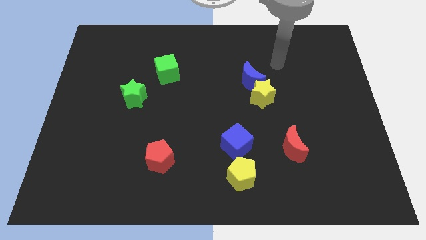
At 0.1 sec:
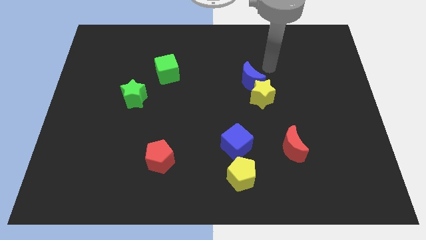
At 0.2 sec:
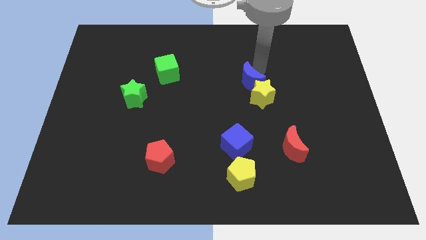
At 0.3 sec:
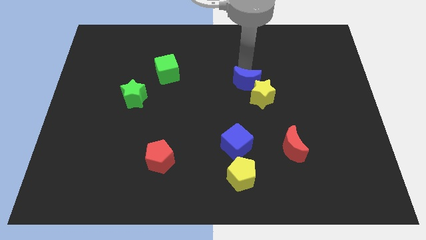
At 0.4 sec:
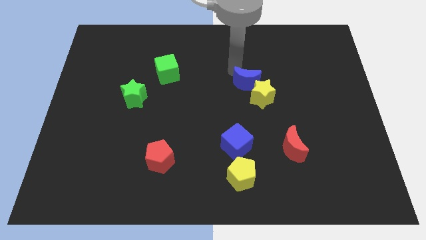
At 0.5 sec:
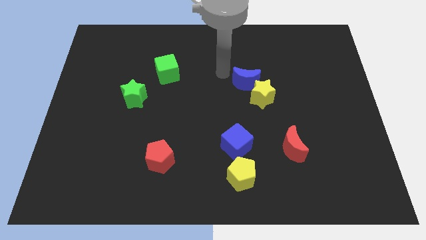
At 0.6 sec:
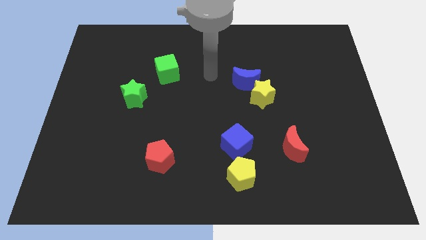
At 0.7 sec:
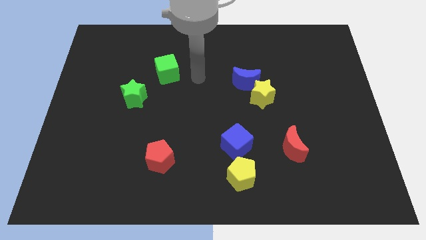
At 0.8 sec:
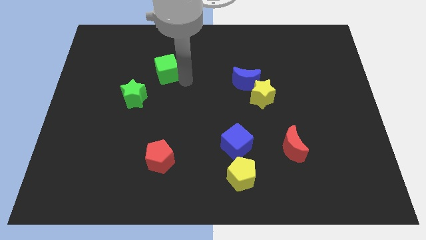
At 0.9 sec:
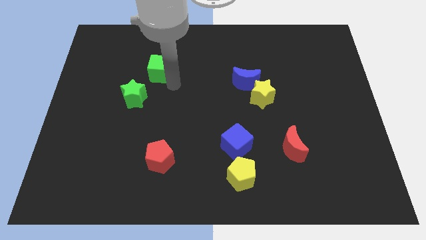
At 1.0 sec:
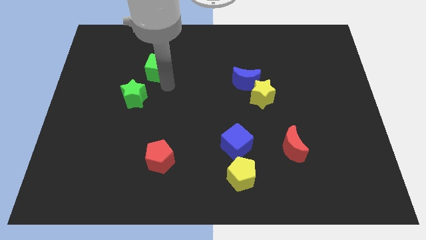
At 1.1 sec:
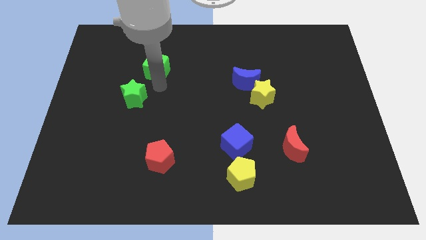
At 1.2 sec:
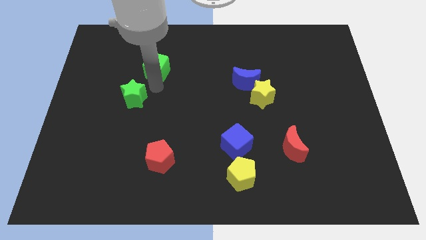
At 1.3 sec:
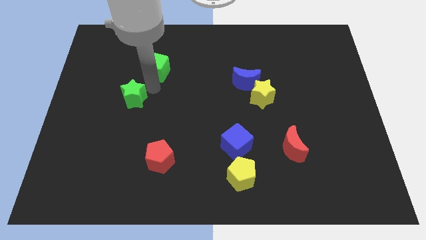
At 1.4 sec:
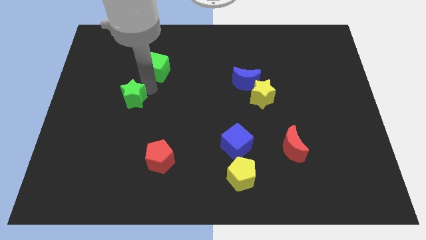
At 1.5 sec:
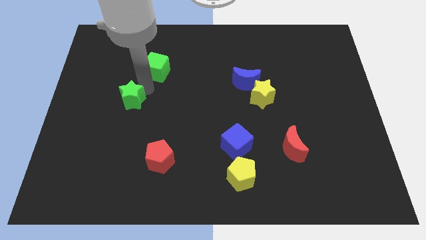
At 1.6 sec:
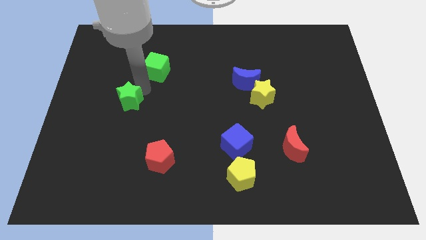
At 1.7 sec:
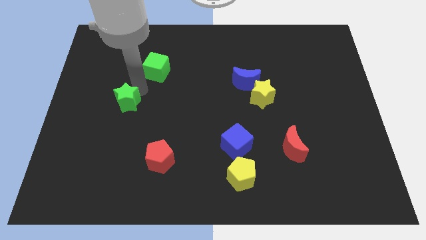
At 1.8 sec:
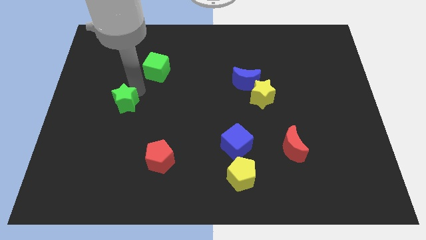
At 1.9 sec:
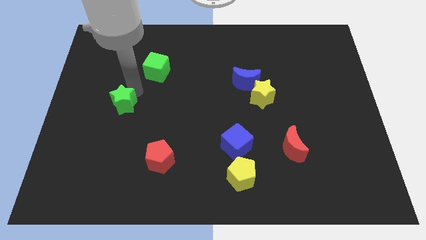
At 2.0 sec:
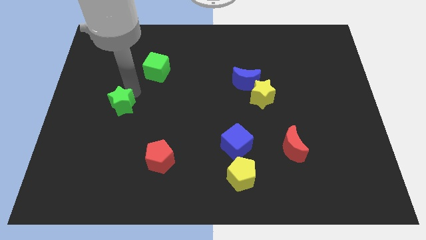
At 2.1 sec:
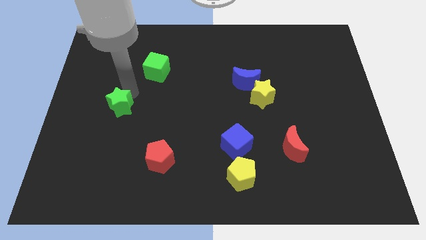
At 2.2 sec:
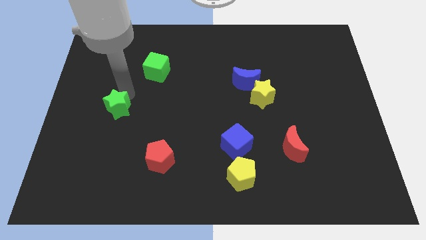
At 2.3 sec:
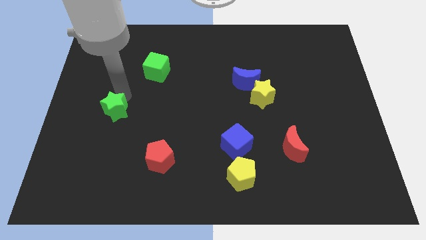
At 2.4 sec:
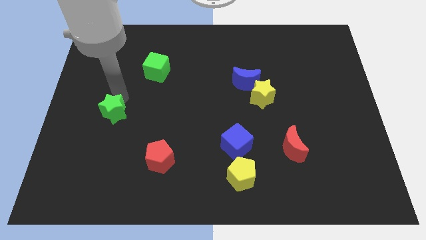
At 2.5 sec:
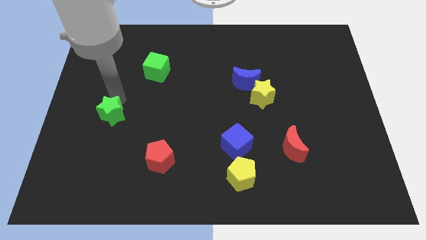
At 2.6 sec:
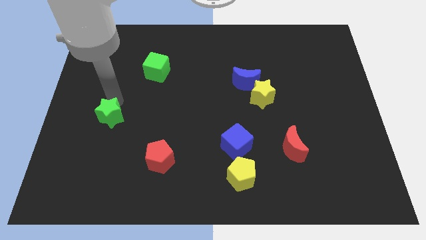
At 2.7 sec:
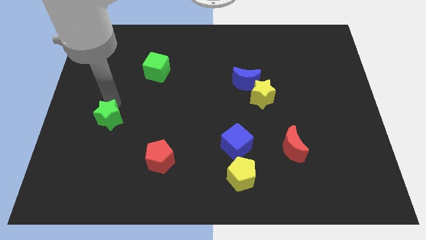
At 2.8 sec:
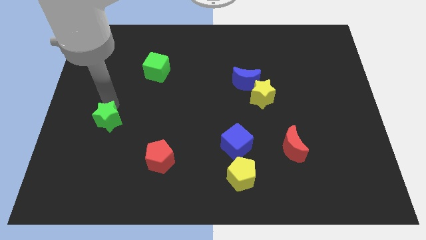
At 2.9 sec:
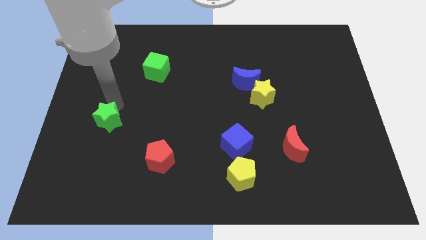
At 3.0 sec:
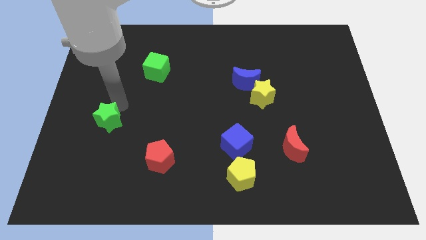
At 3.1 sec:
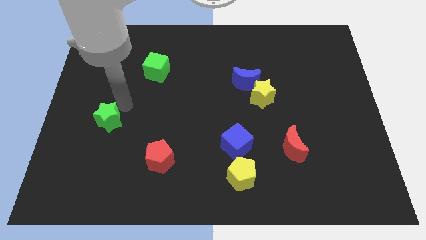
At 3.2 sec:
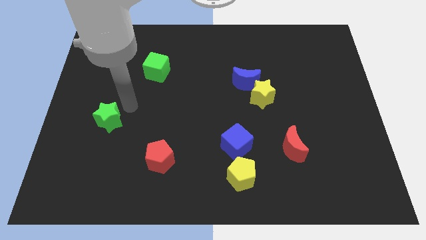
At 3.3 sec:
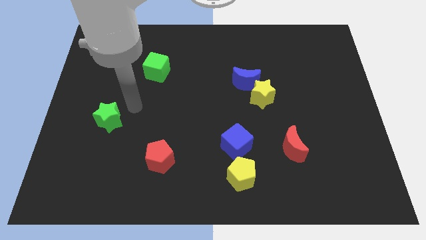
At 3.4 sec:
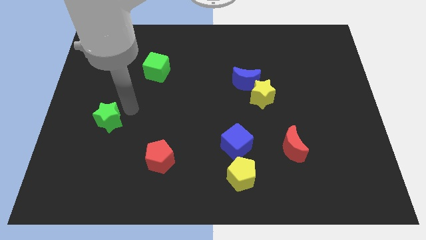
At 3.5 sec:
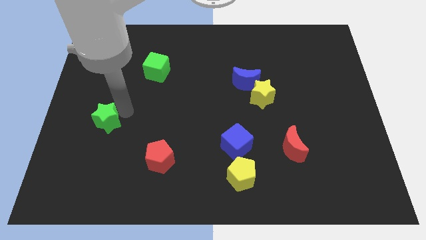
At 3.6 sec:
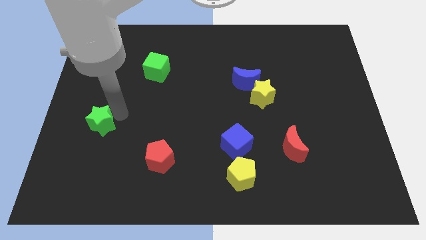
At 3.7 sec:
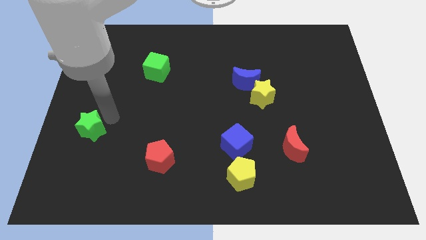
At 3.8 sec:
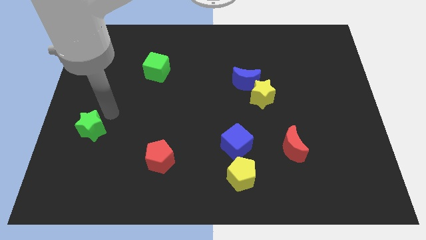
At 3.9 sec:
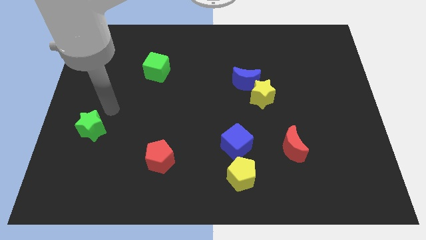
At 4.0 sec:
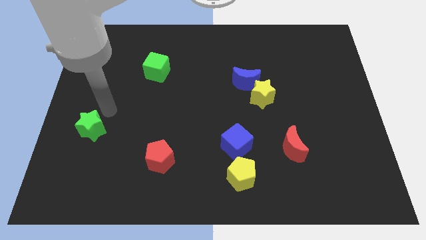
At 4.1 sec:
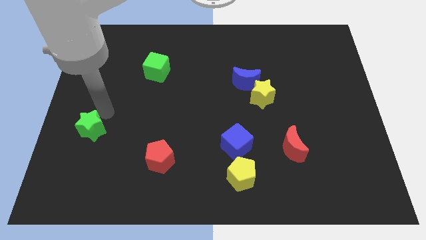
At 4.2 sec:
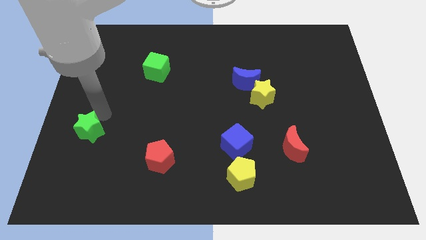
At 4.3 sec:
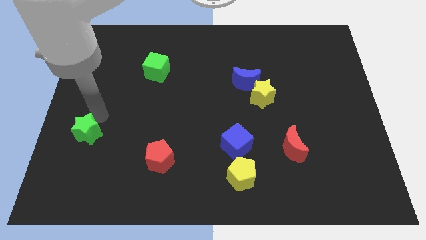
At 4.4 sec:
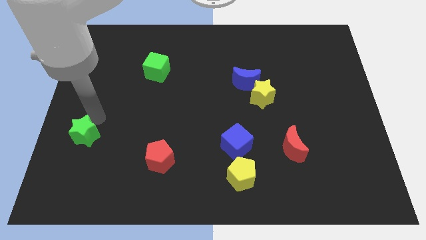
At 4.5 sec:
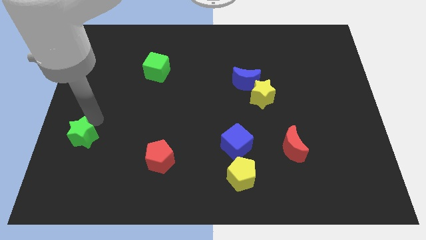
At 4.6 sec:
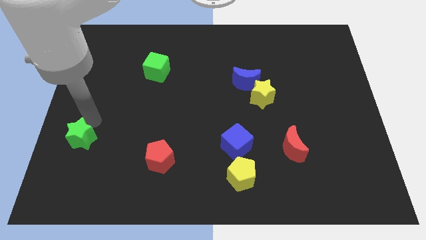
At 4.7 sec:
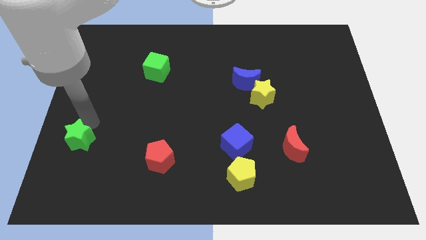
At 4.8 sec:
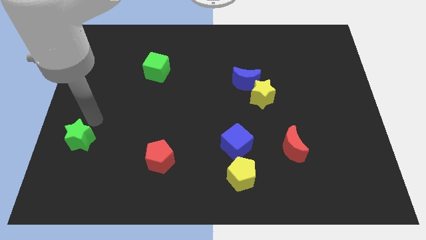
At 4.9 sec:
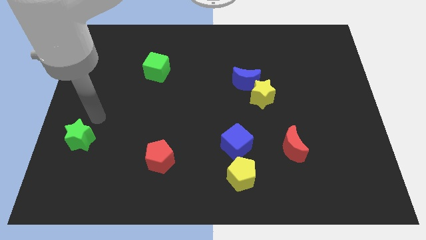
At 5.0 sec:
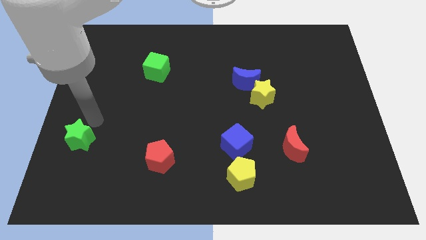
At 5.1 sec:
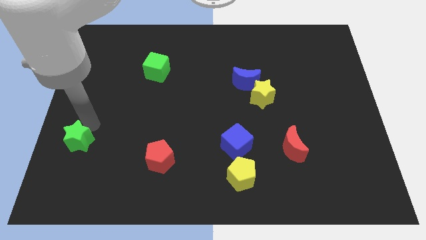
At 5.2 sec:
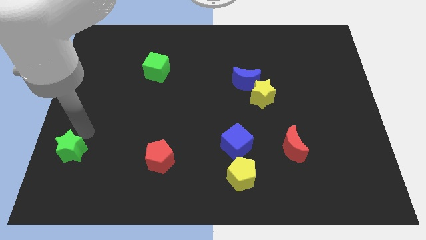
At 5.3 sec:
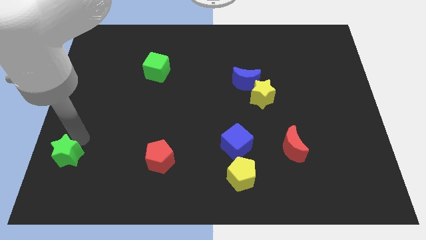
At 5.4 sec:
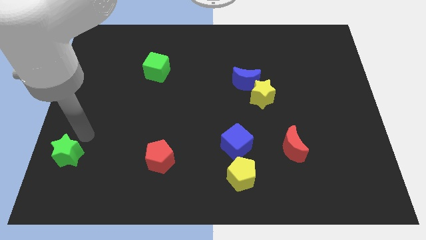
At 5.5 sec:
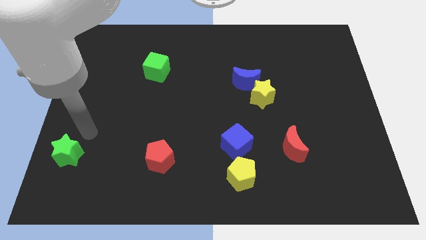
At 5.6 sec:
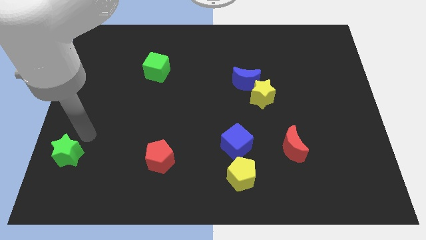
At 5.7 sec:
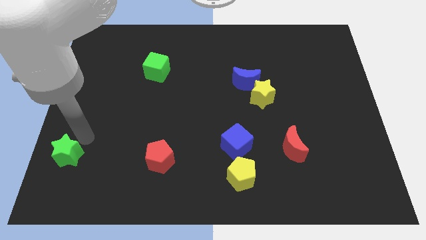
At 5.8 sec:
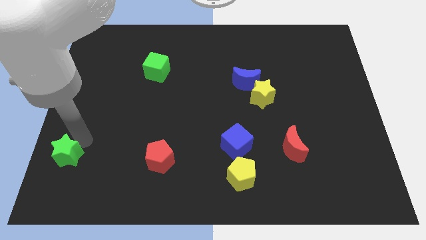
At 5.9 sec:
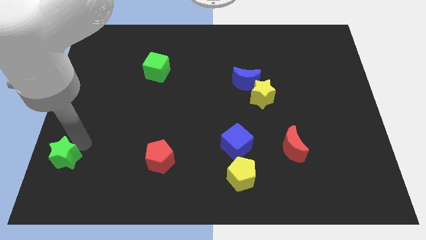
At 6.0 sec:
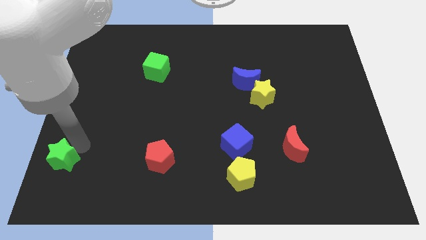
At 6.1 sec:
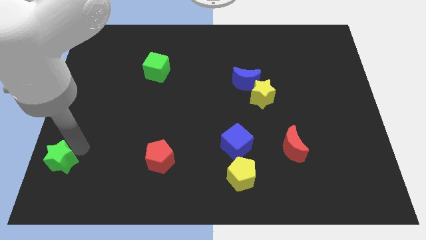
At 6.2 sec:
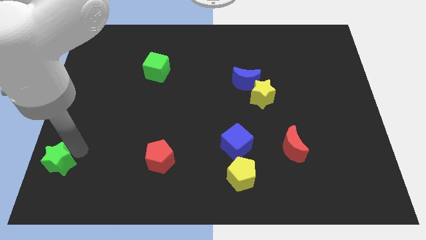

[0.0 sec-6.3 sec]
slide the green star to the bottom left corner
